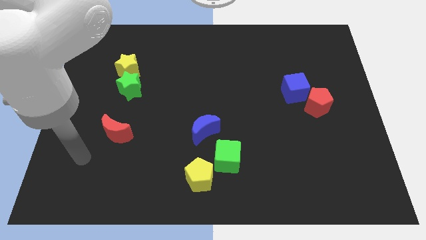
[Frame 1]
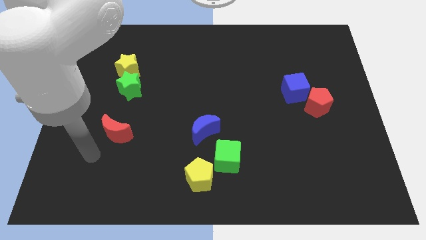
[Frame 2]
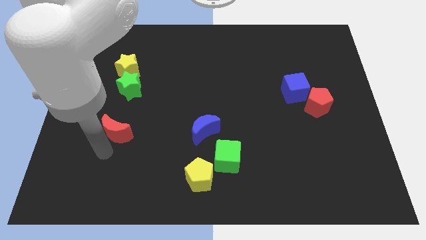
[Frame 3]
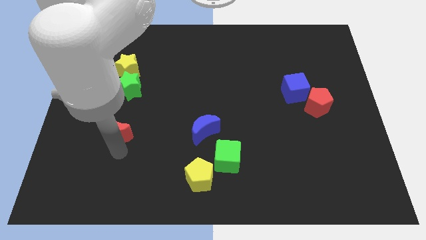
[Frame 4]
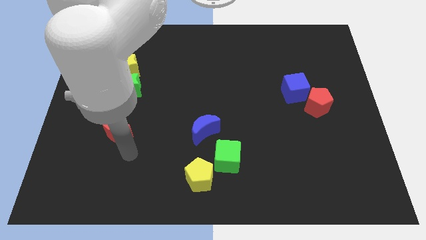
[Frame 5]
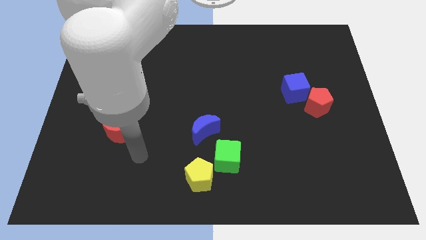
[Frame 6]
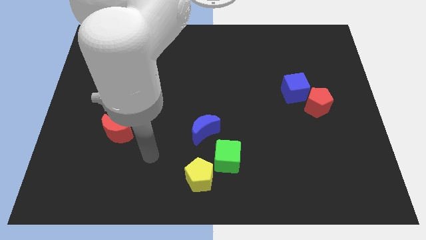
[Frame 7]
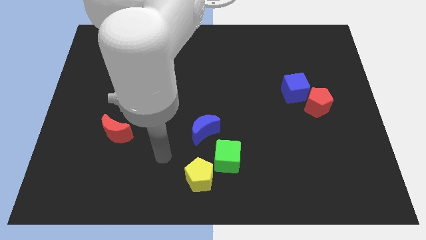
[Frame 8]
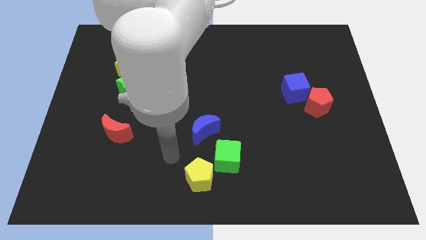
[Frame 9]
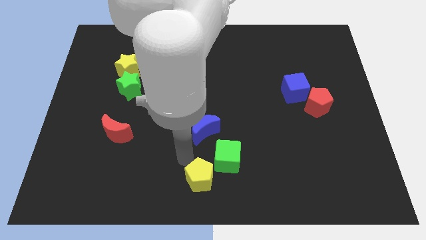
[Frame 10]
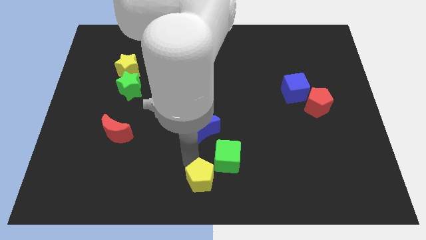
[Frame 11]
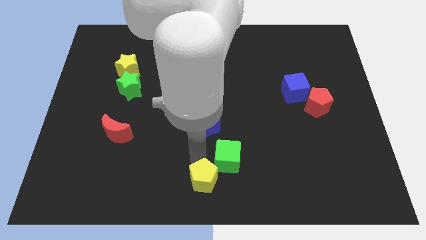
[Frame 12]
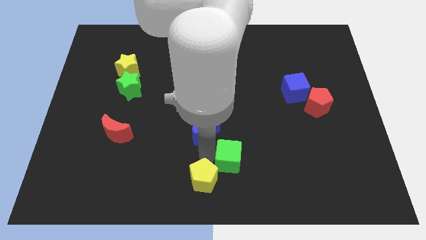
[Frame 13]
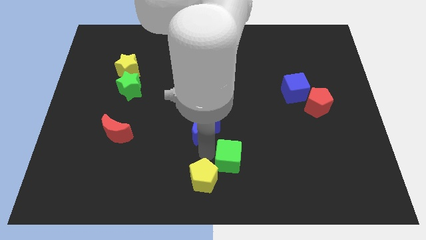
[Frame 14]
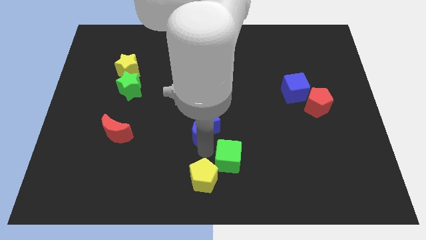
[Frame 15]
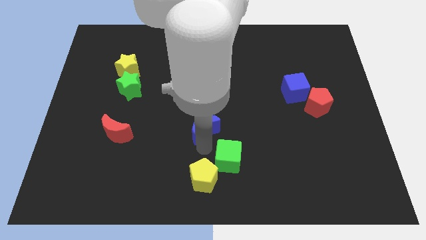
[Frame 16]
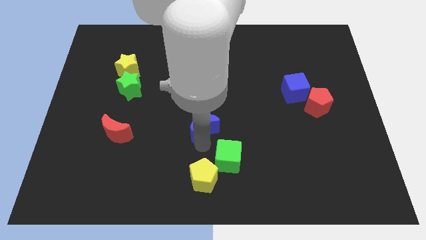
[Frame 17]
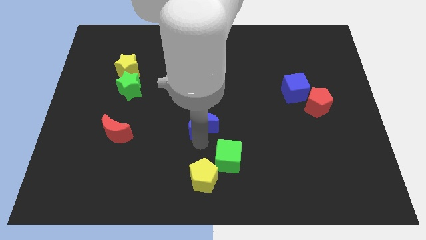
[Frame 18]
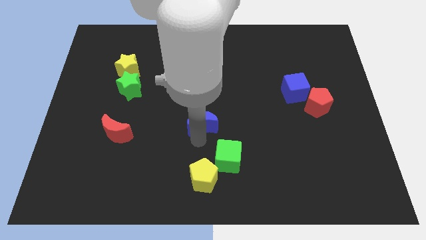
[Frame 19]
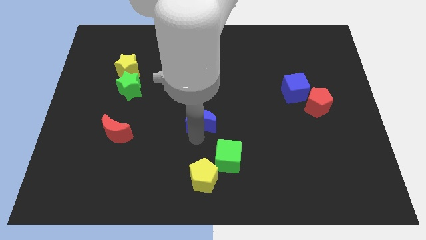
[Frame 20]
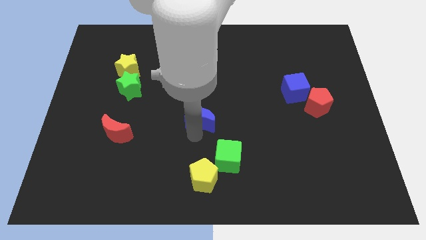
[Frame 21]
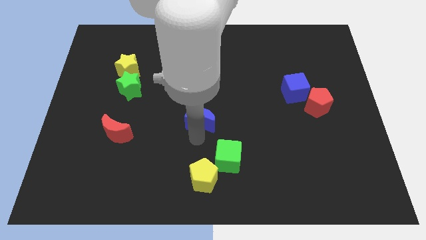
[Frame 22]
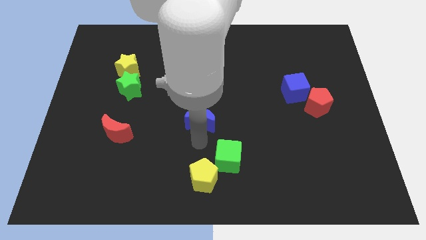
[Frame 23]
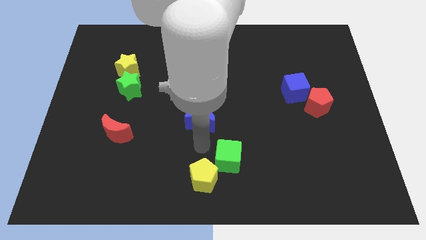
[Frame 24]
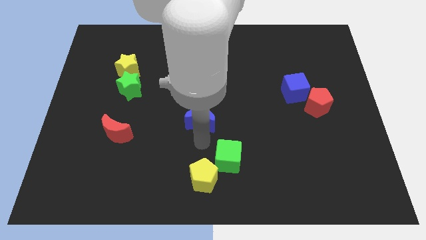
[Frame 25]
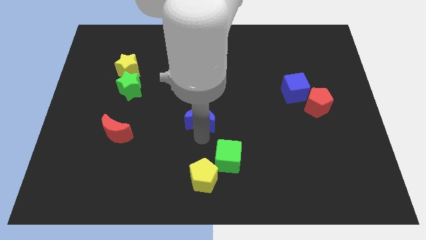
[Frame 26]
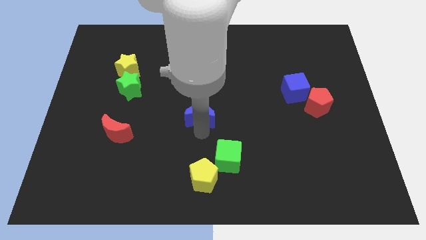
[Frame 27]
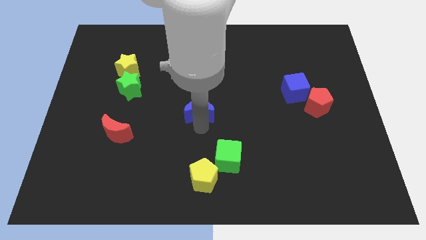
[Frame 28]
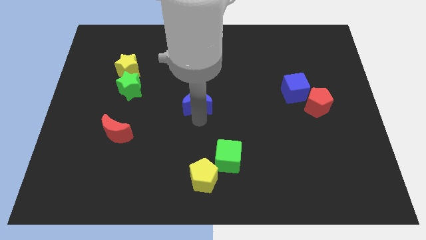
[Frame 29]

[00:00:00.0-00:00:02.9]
push the blue moon upwards a little

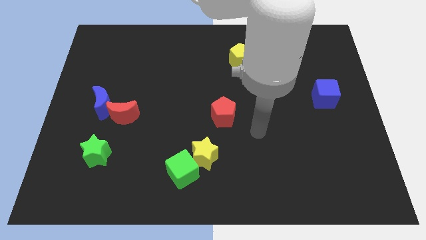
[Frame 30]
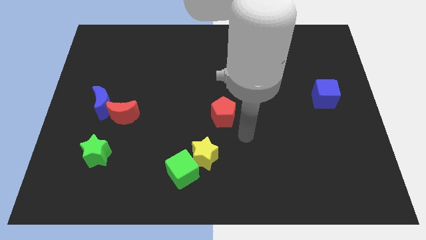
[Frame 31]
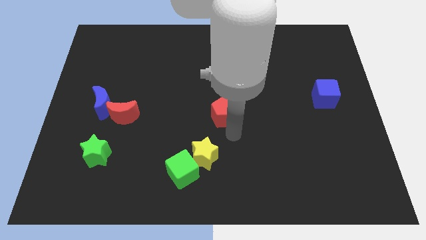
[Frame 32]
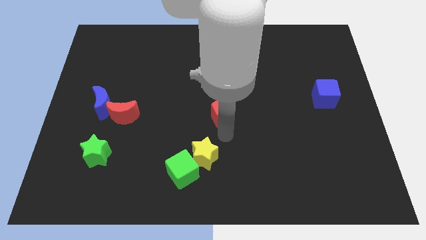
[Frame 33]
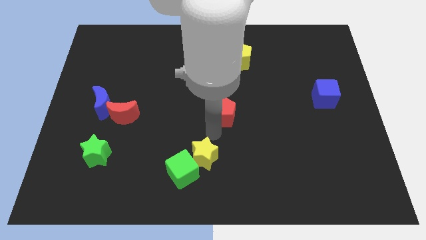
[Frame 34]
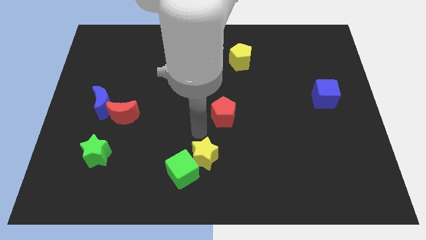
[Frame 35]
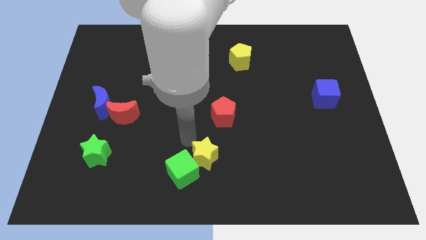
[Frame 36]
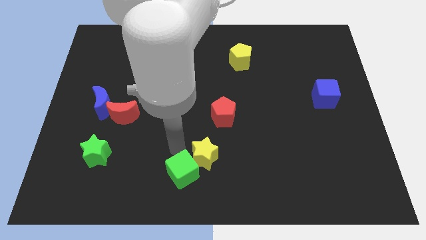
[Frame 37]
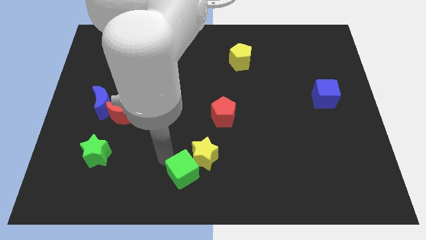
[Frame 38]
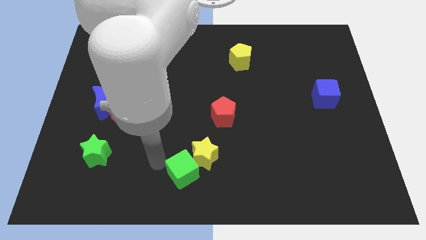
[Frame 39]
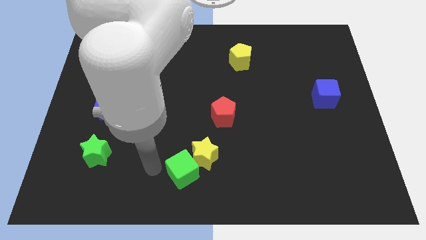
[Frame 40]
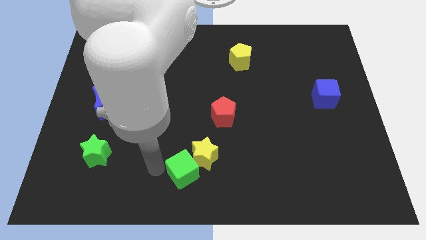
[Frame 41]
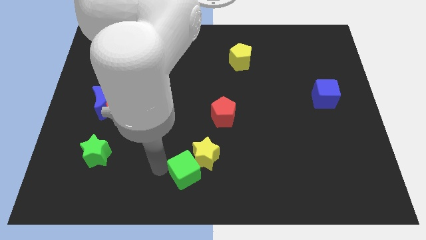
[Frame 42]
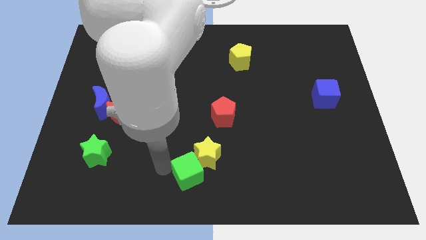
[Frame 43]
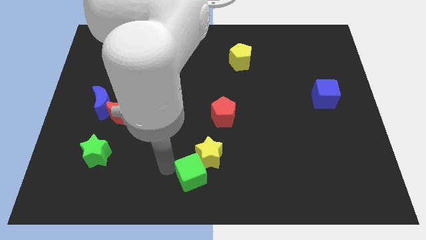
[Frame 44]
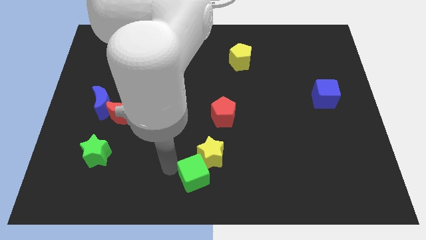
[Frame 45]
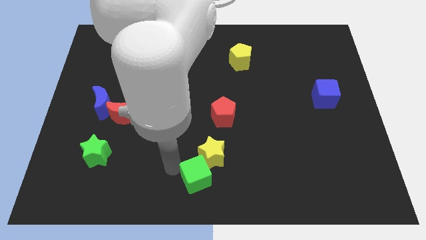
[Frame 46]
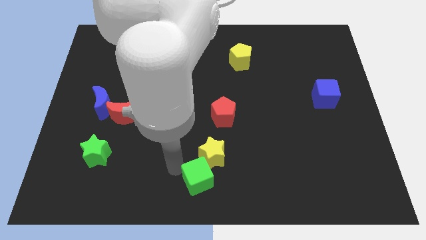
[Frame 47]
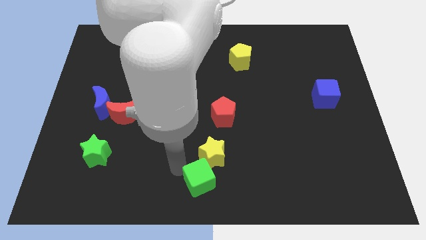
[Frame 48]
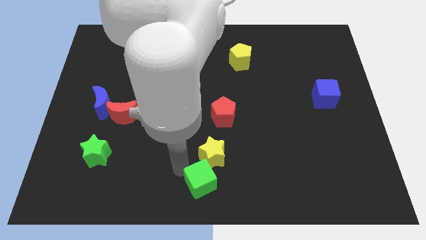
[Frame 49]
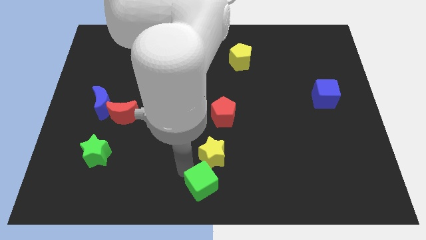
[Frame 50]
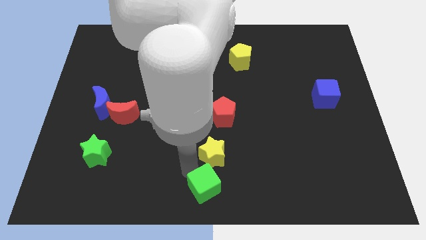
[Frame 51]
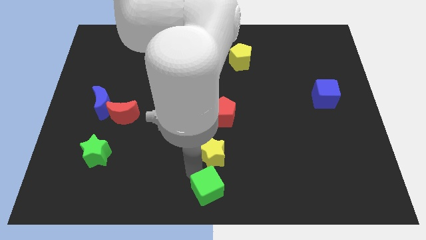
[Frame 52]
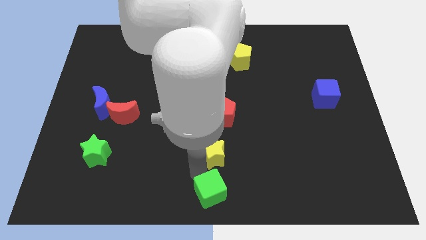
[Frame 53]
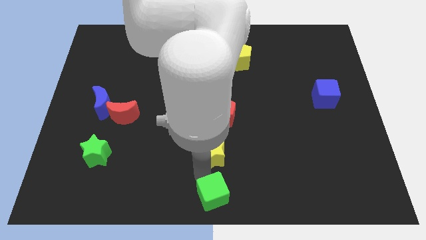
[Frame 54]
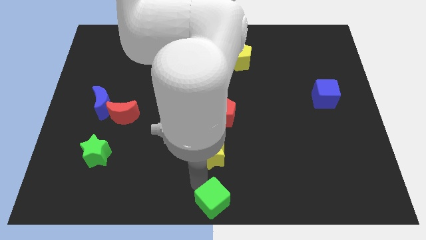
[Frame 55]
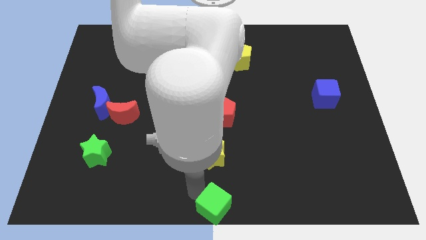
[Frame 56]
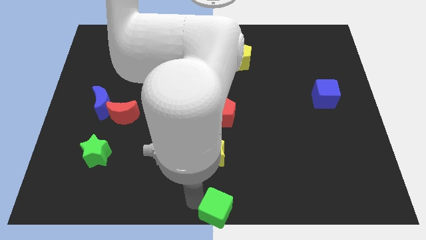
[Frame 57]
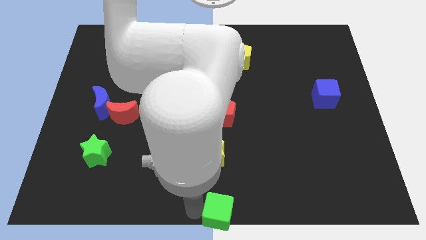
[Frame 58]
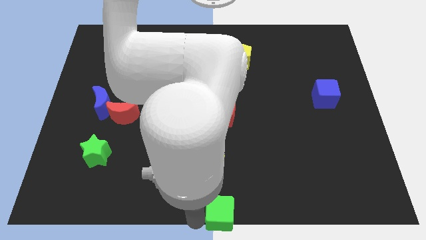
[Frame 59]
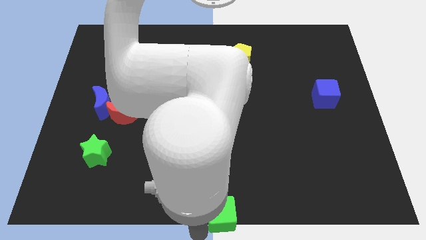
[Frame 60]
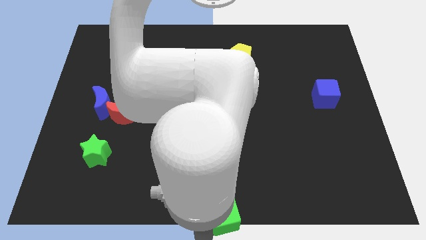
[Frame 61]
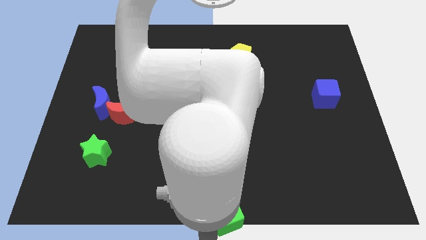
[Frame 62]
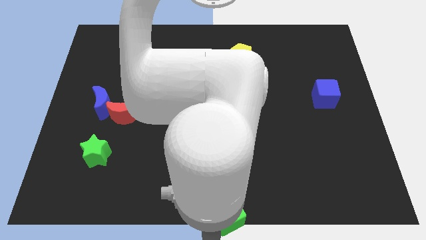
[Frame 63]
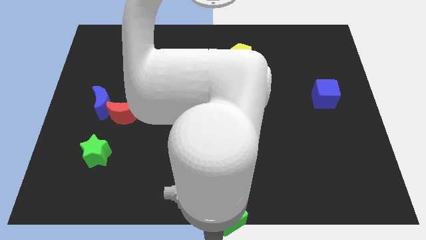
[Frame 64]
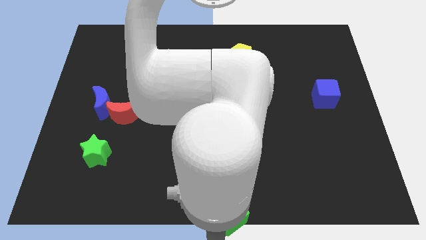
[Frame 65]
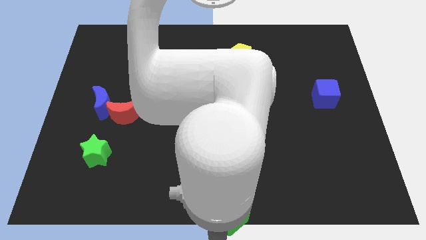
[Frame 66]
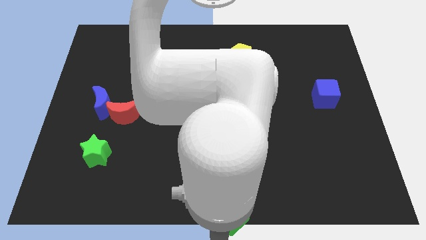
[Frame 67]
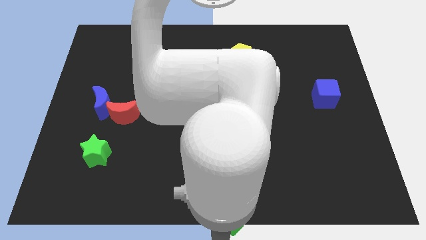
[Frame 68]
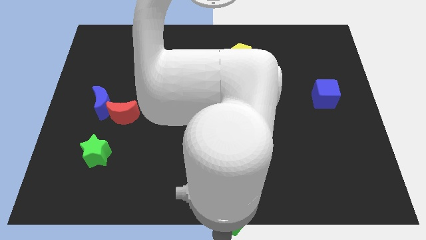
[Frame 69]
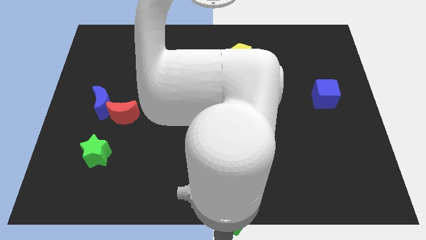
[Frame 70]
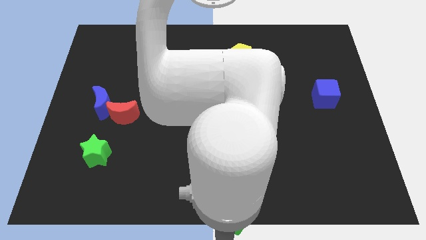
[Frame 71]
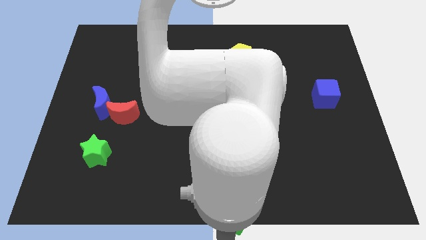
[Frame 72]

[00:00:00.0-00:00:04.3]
slide the green cube right slightly
